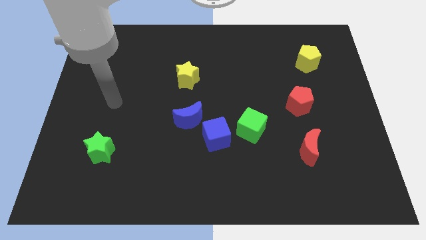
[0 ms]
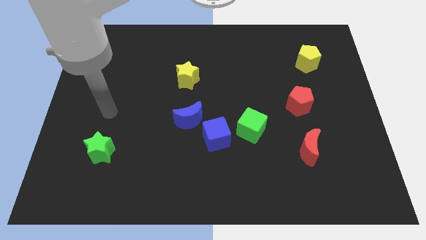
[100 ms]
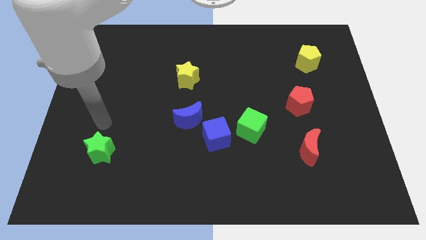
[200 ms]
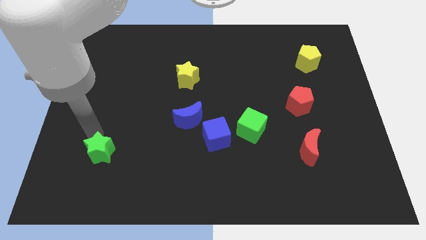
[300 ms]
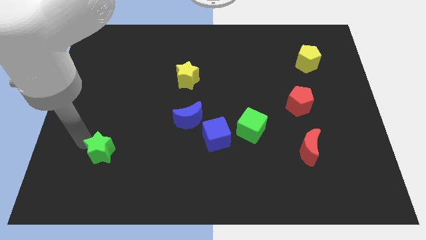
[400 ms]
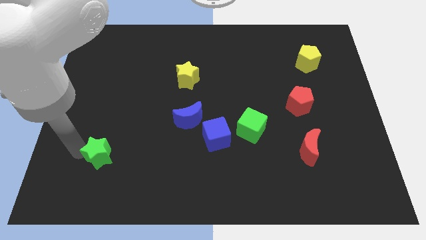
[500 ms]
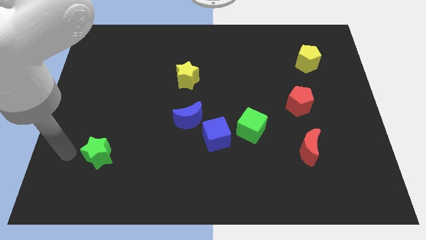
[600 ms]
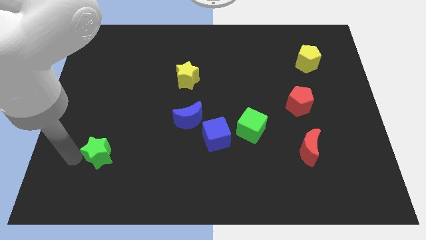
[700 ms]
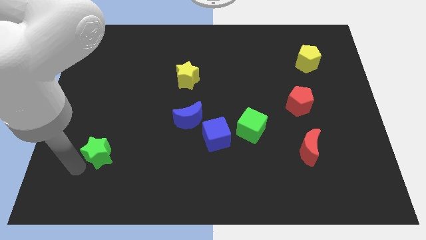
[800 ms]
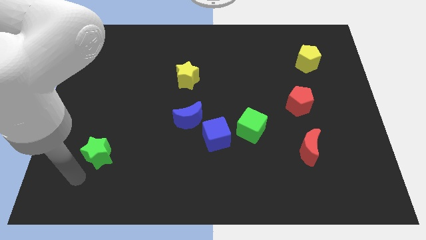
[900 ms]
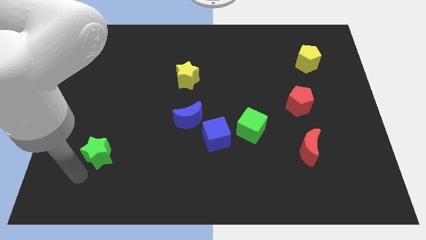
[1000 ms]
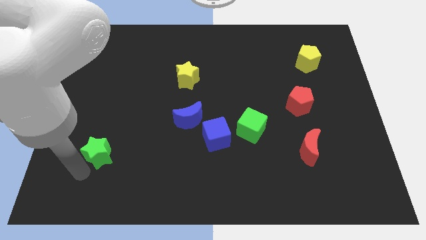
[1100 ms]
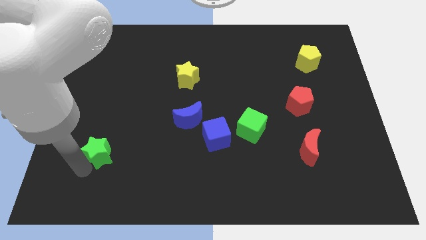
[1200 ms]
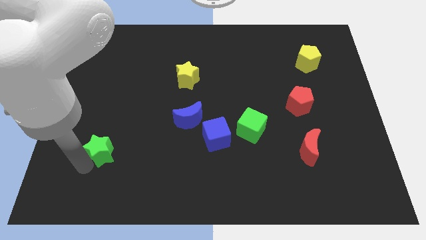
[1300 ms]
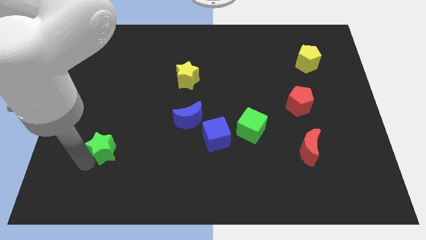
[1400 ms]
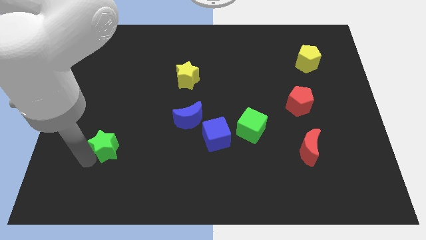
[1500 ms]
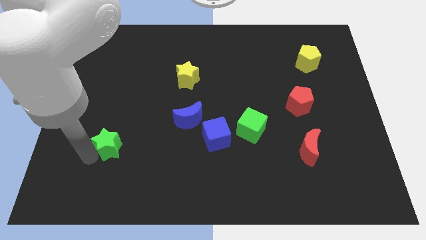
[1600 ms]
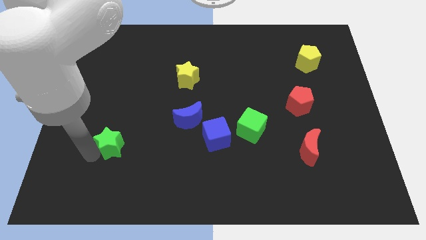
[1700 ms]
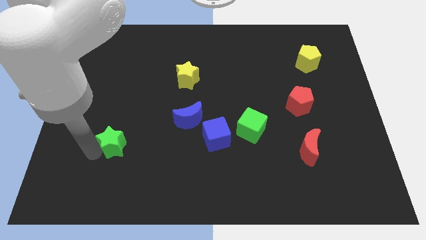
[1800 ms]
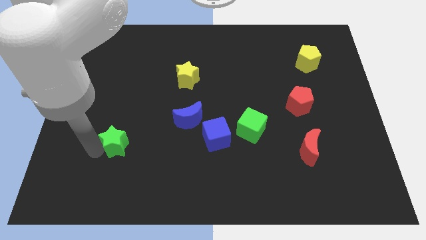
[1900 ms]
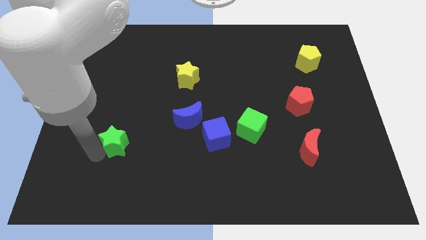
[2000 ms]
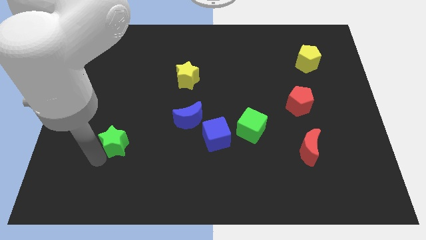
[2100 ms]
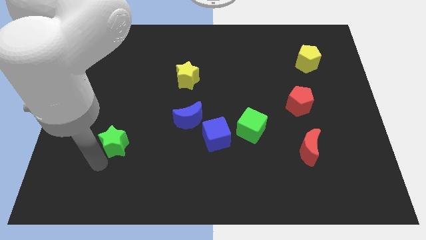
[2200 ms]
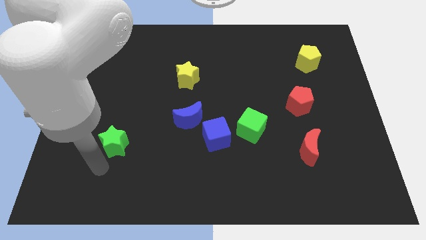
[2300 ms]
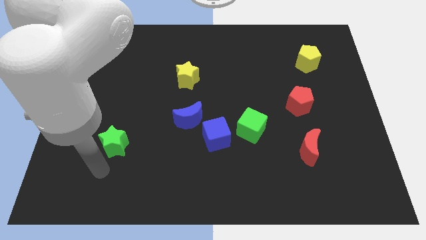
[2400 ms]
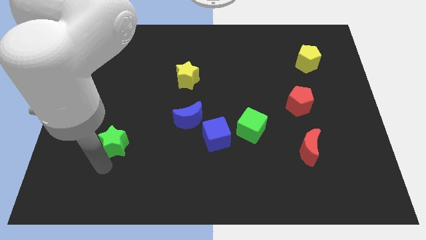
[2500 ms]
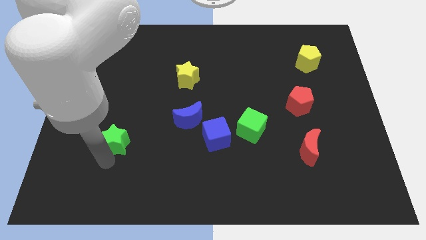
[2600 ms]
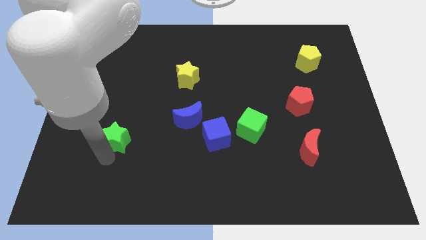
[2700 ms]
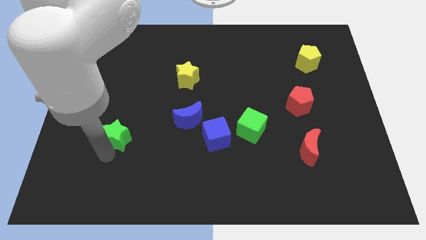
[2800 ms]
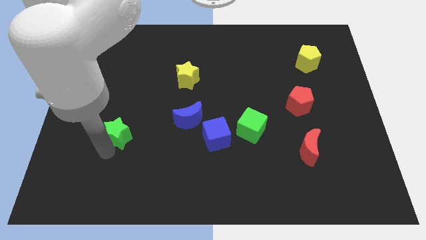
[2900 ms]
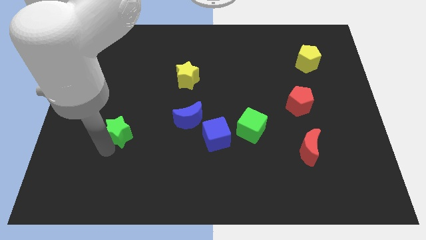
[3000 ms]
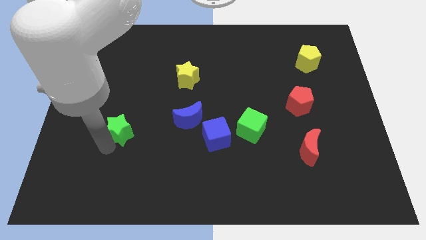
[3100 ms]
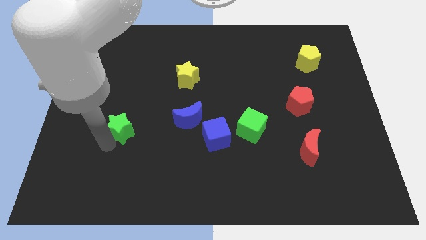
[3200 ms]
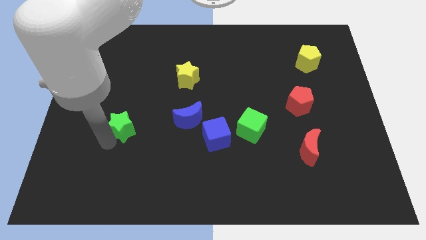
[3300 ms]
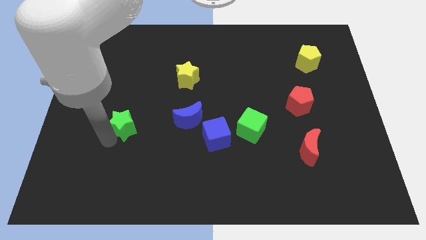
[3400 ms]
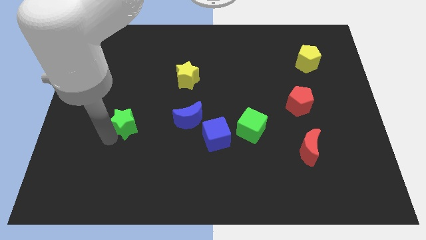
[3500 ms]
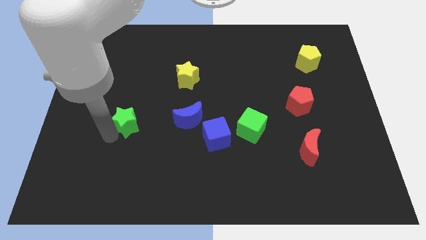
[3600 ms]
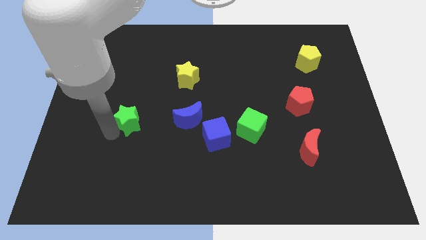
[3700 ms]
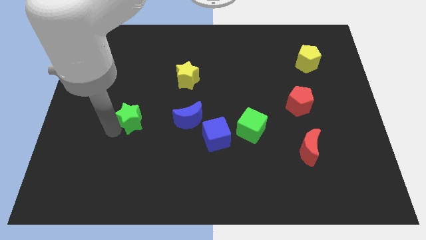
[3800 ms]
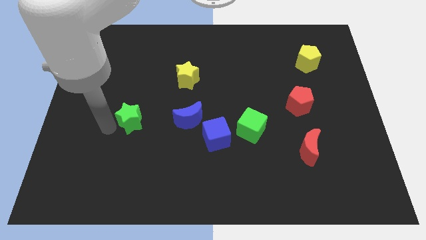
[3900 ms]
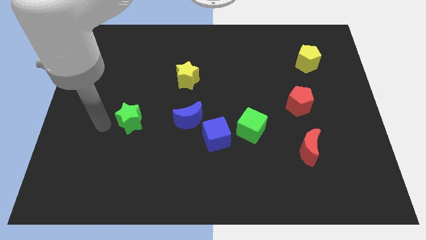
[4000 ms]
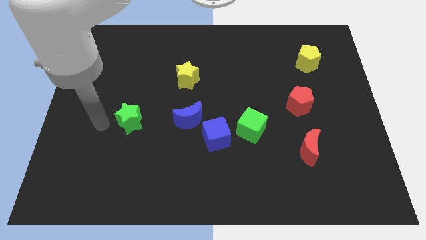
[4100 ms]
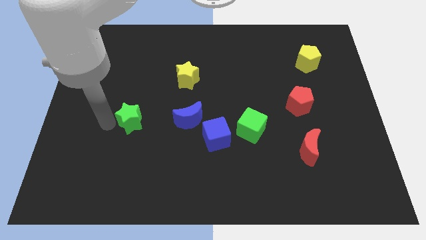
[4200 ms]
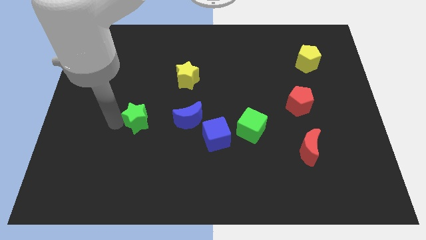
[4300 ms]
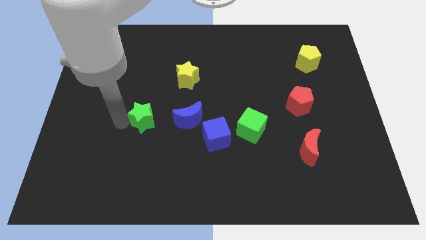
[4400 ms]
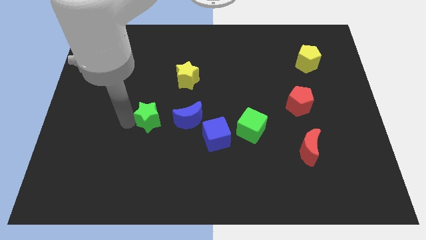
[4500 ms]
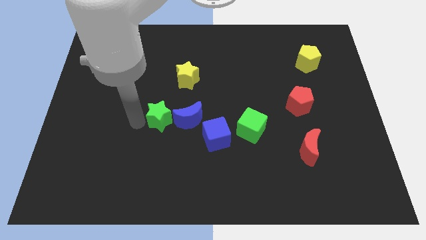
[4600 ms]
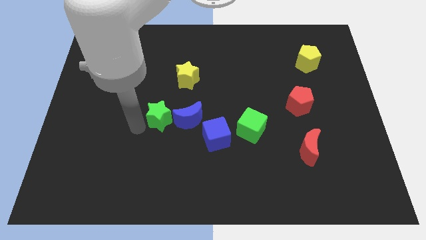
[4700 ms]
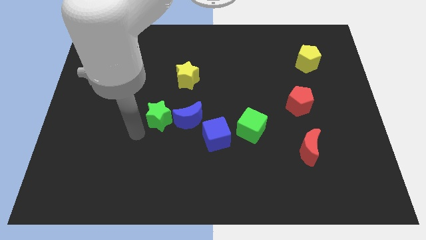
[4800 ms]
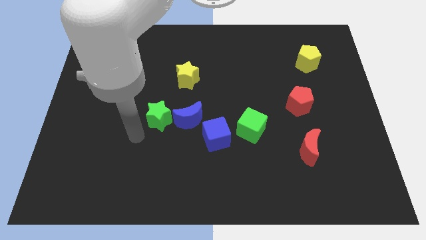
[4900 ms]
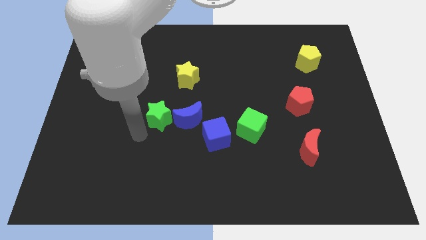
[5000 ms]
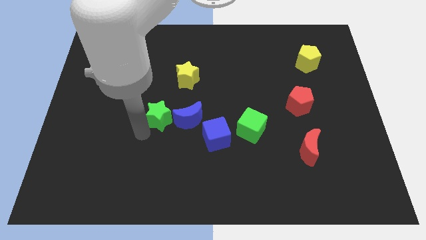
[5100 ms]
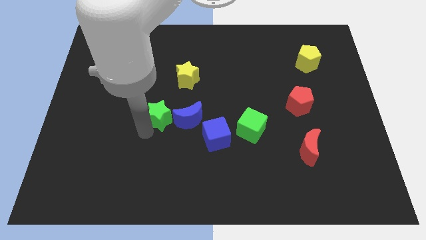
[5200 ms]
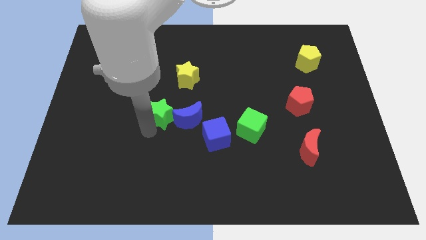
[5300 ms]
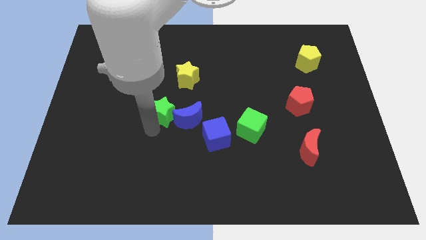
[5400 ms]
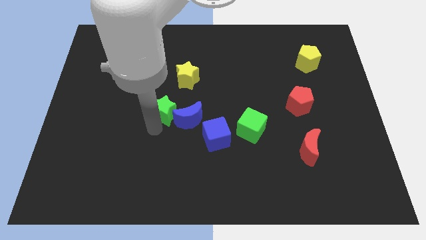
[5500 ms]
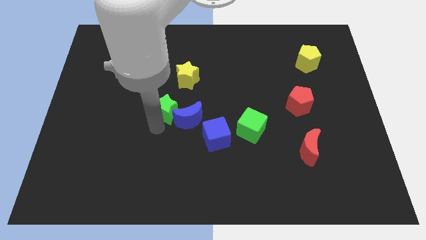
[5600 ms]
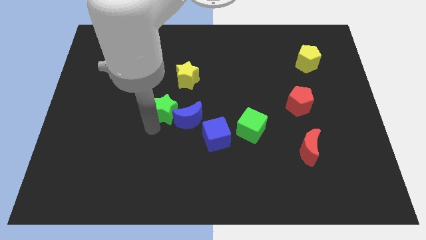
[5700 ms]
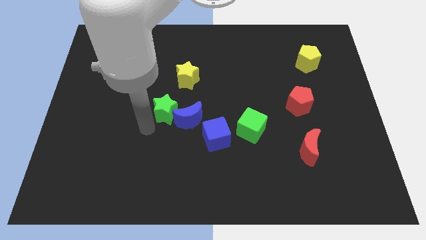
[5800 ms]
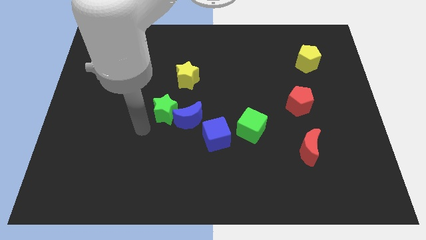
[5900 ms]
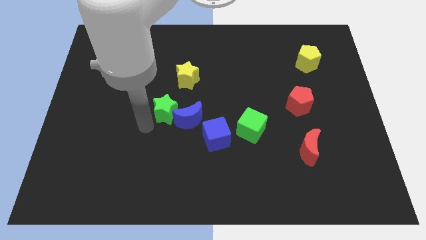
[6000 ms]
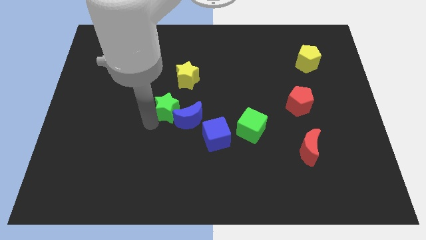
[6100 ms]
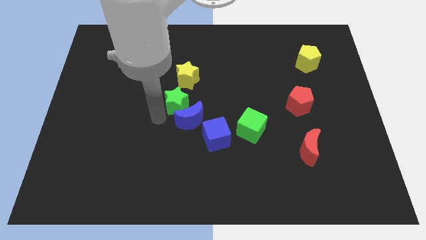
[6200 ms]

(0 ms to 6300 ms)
slide the green star up and then to the right

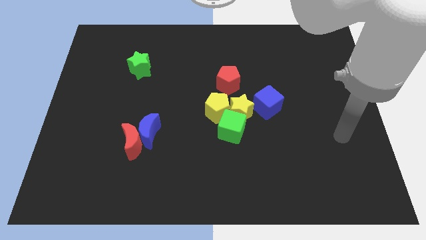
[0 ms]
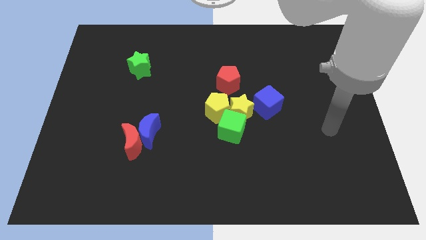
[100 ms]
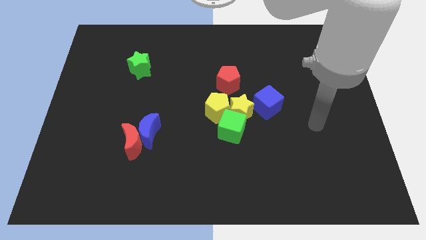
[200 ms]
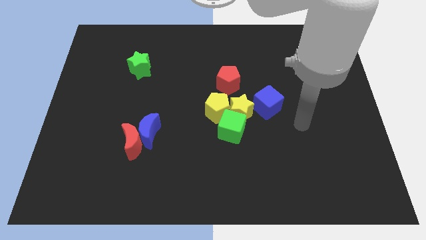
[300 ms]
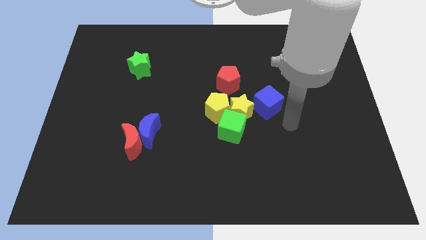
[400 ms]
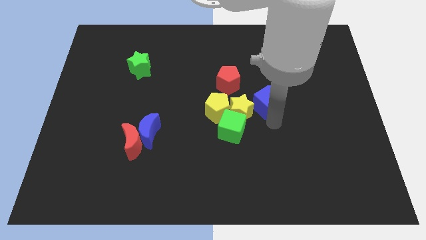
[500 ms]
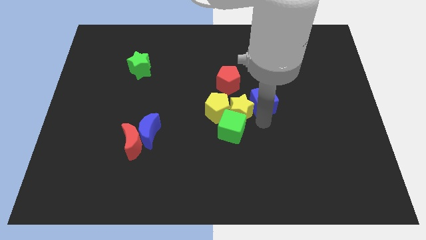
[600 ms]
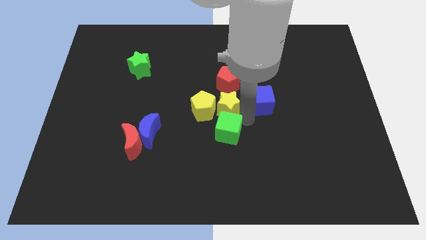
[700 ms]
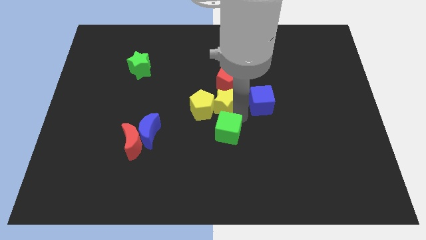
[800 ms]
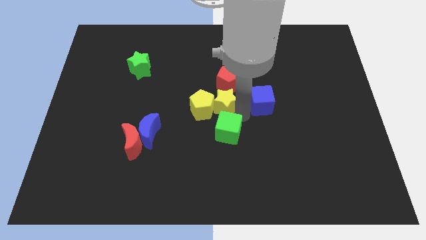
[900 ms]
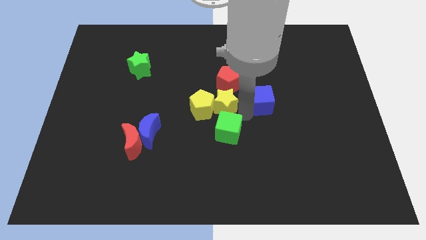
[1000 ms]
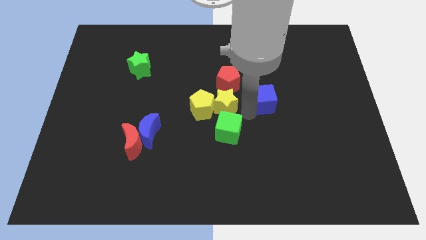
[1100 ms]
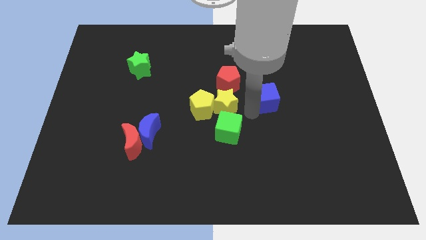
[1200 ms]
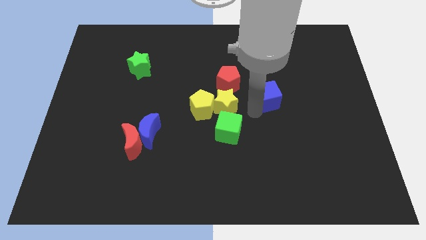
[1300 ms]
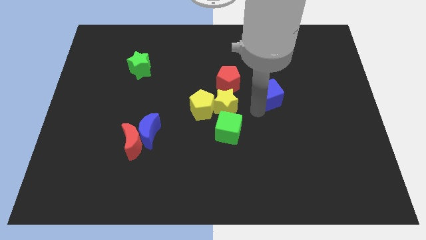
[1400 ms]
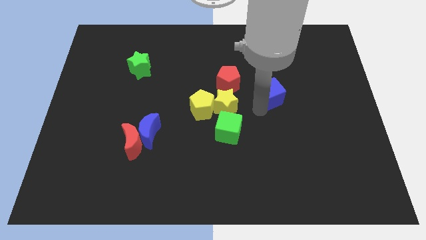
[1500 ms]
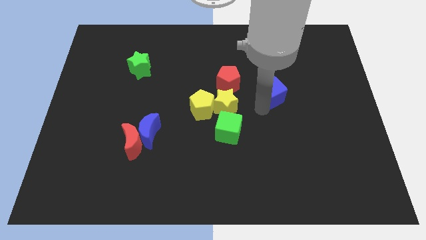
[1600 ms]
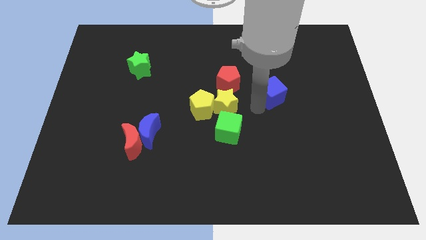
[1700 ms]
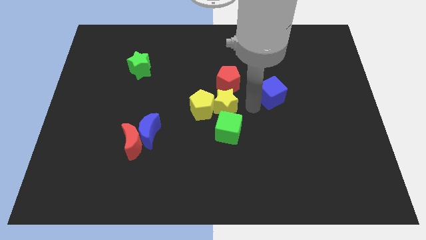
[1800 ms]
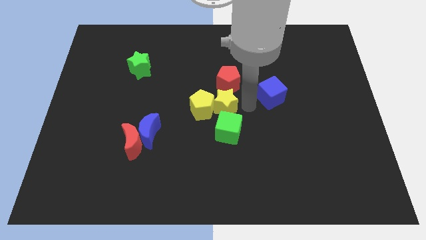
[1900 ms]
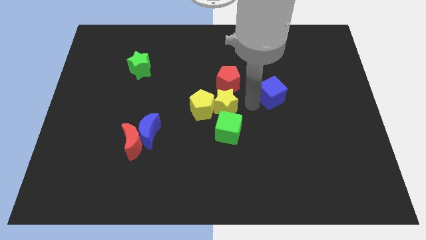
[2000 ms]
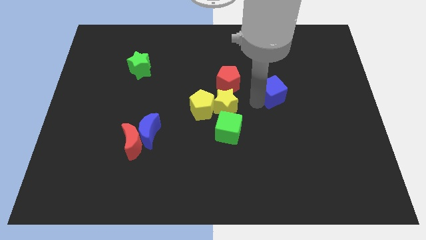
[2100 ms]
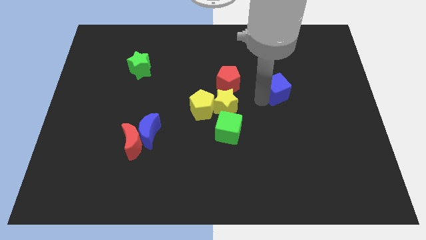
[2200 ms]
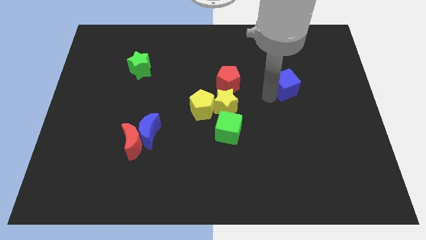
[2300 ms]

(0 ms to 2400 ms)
move the blue cube upwards and then right a little bit
